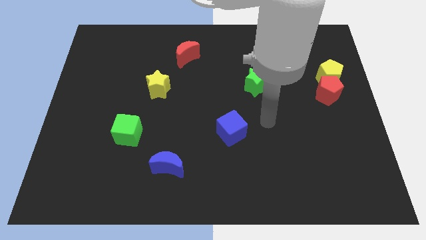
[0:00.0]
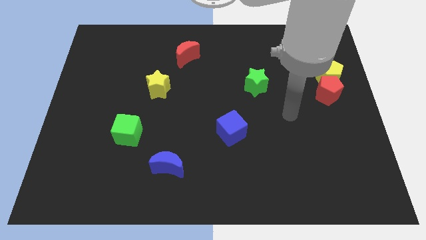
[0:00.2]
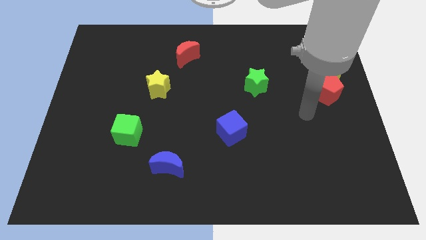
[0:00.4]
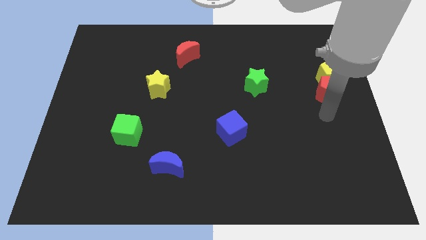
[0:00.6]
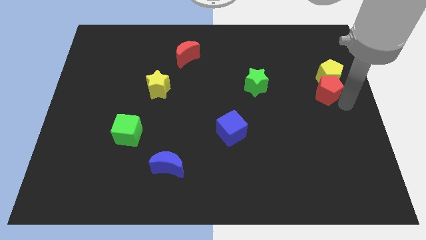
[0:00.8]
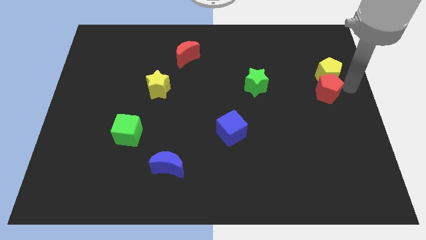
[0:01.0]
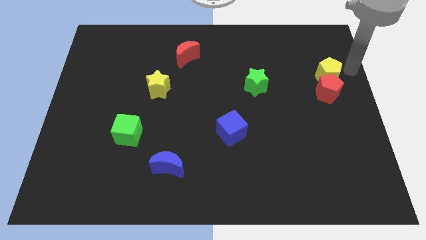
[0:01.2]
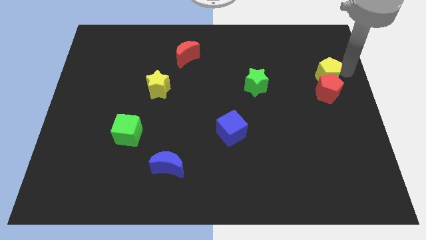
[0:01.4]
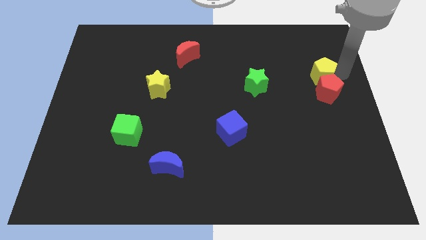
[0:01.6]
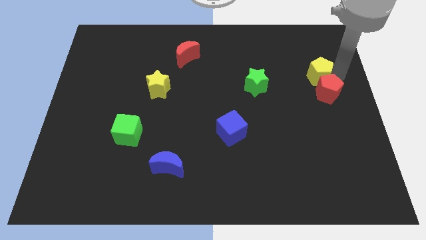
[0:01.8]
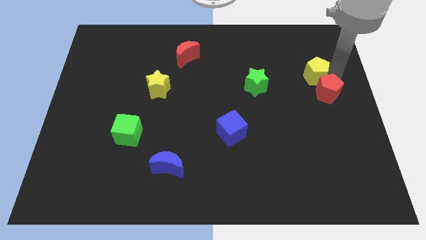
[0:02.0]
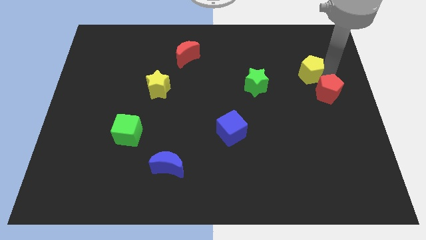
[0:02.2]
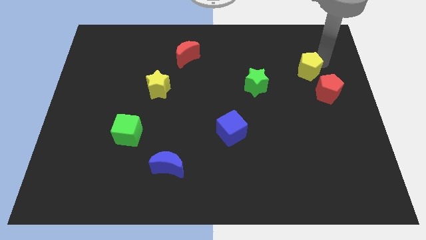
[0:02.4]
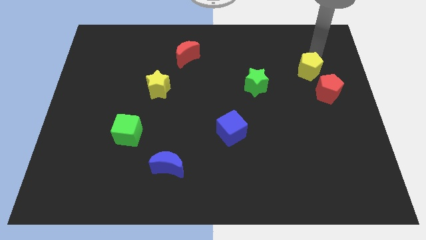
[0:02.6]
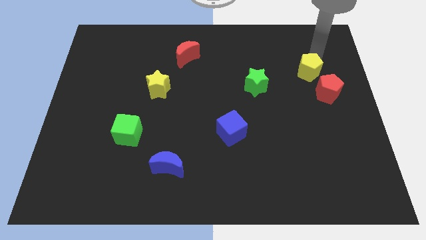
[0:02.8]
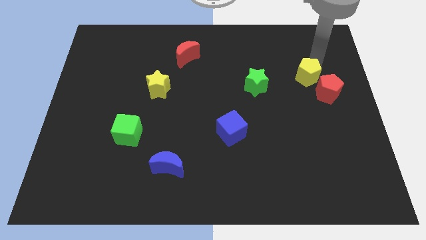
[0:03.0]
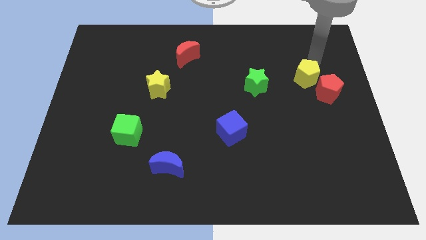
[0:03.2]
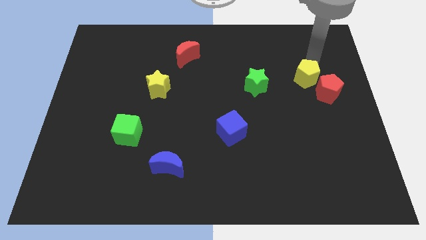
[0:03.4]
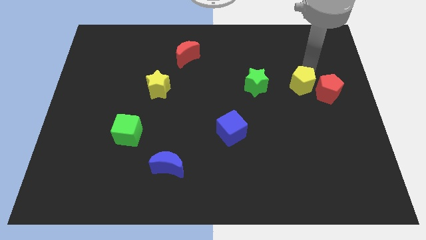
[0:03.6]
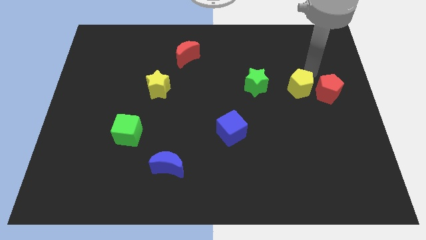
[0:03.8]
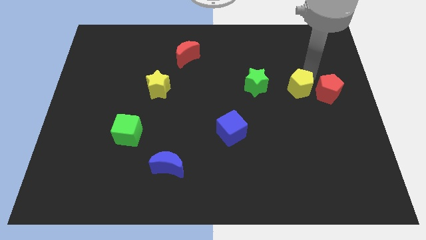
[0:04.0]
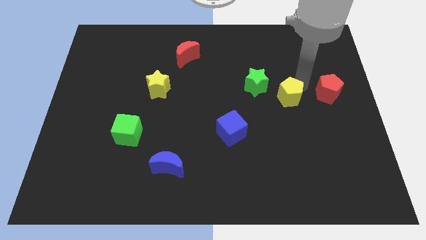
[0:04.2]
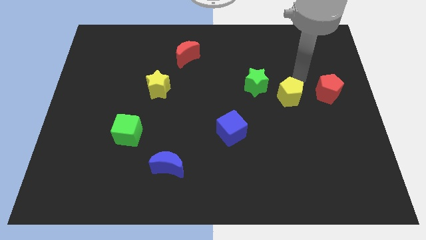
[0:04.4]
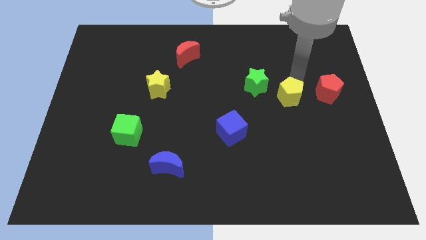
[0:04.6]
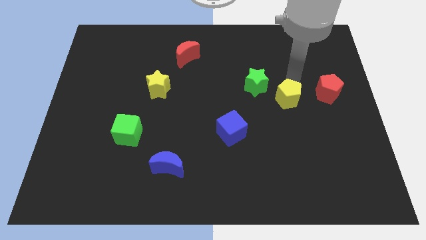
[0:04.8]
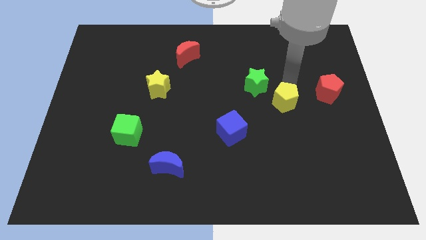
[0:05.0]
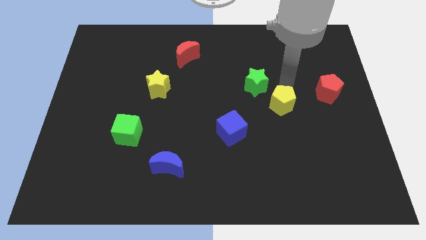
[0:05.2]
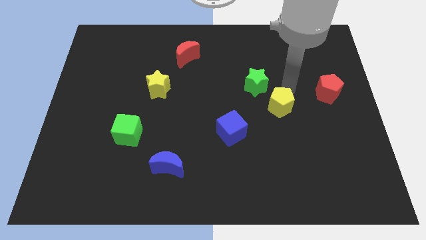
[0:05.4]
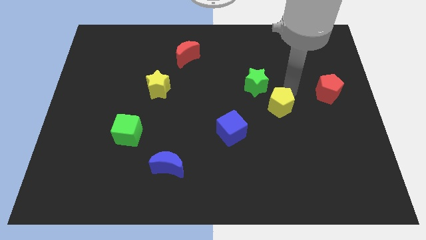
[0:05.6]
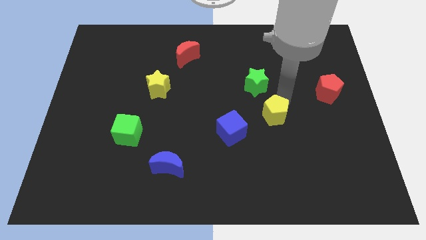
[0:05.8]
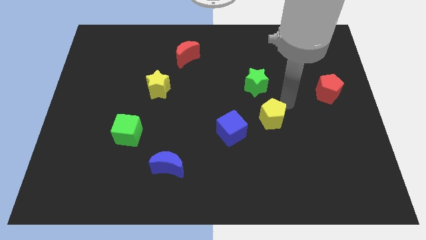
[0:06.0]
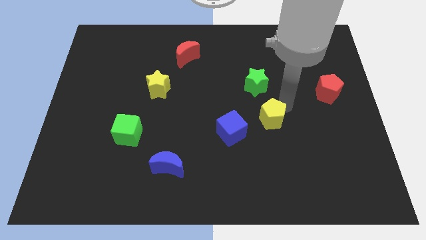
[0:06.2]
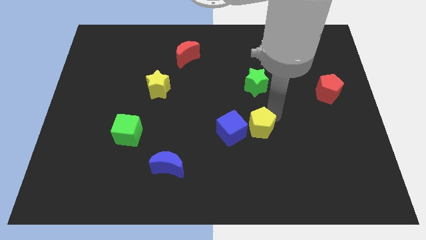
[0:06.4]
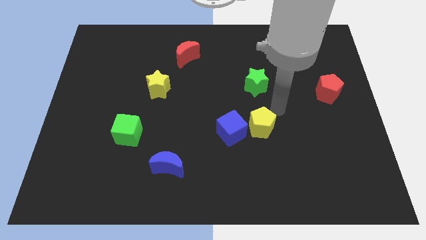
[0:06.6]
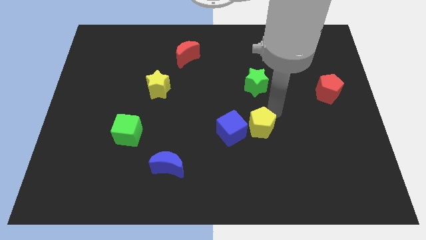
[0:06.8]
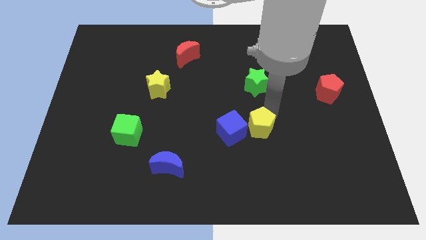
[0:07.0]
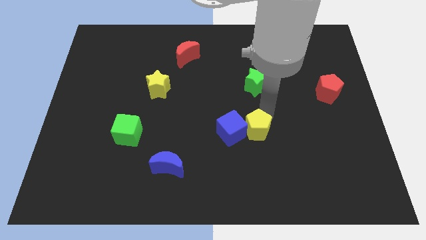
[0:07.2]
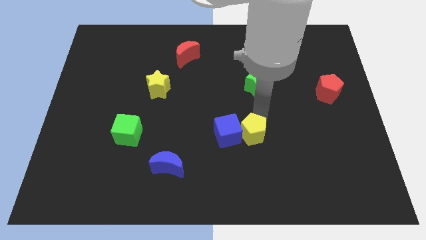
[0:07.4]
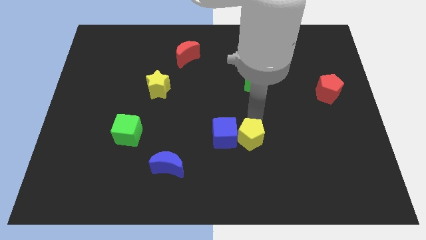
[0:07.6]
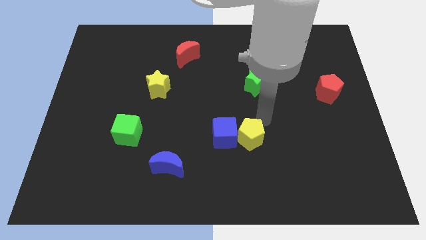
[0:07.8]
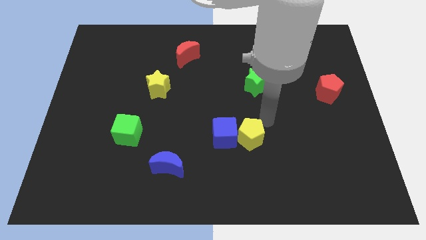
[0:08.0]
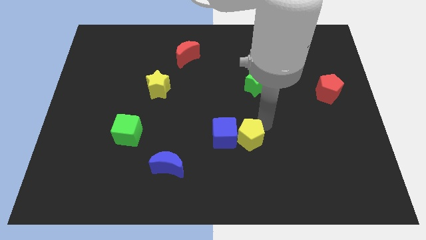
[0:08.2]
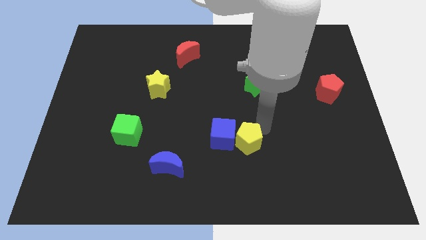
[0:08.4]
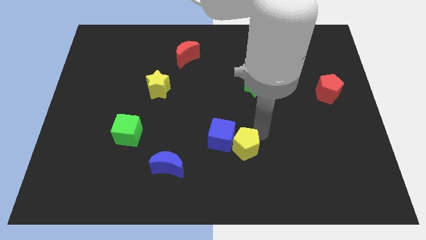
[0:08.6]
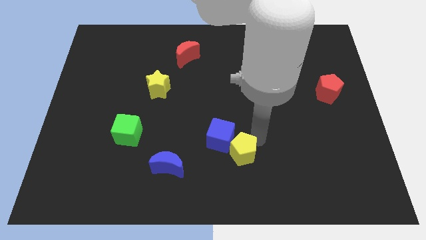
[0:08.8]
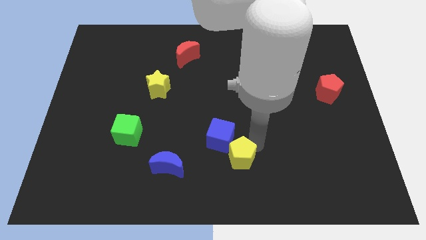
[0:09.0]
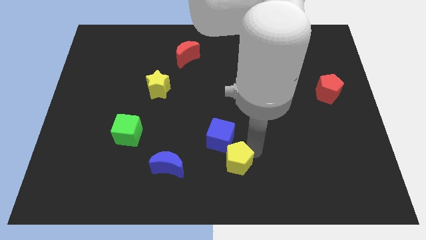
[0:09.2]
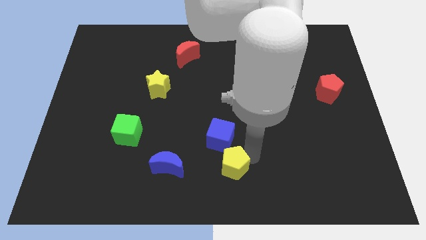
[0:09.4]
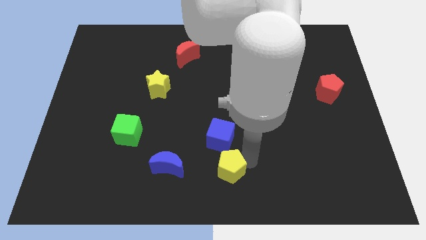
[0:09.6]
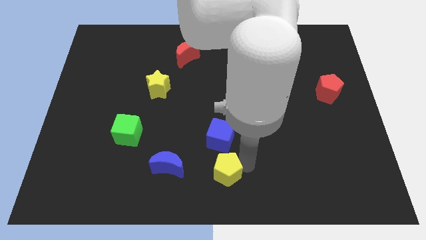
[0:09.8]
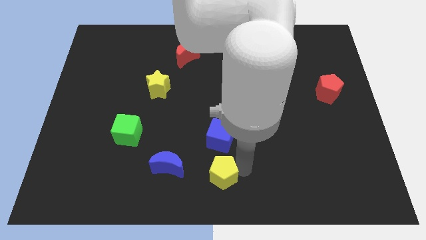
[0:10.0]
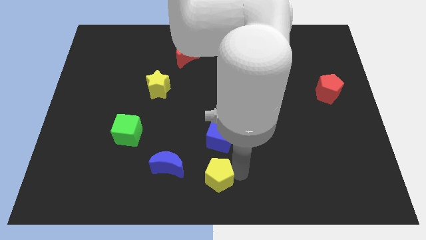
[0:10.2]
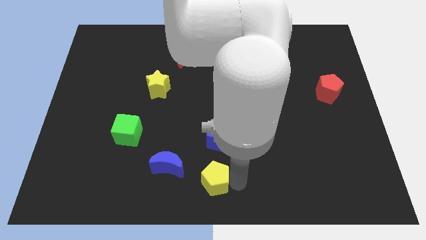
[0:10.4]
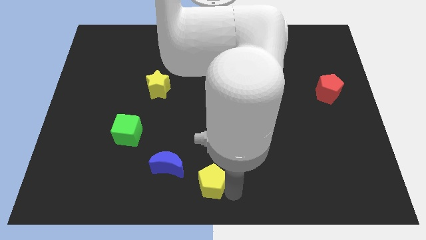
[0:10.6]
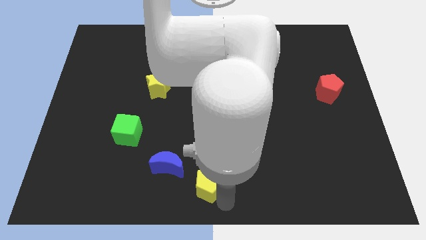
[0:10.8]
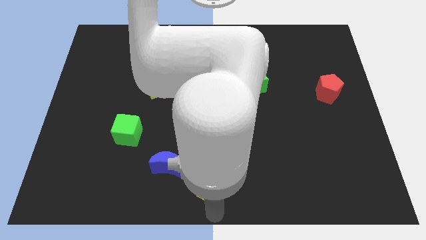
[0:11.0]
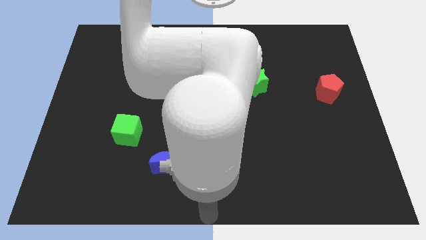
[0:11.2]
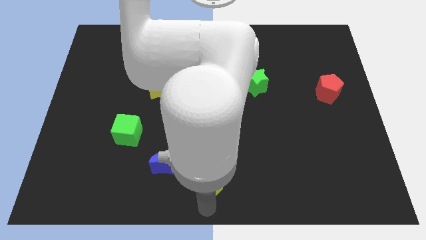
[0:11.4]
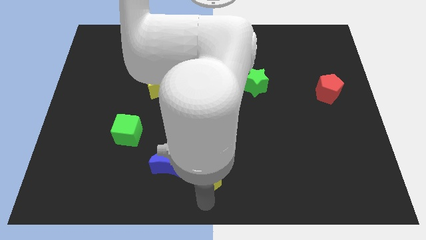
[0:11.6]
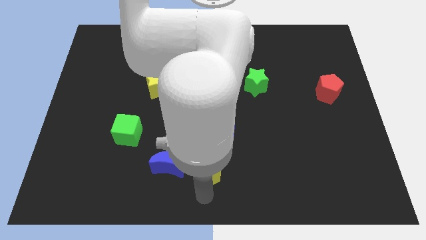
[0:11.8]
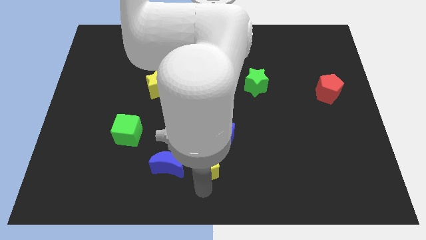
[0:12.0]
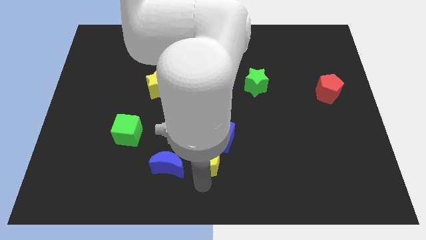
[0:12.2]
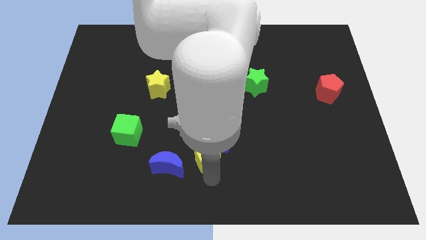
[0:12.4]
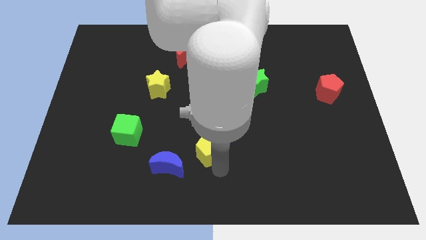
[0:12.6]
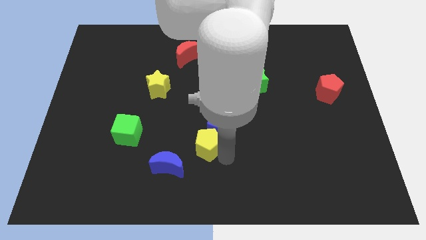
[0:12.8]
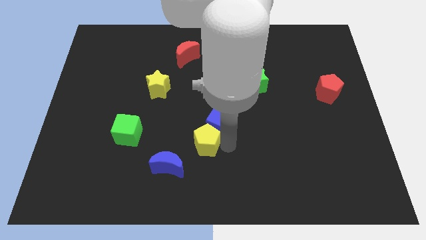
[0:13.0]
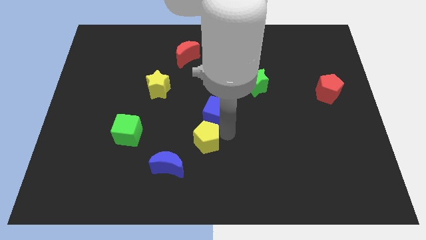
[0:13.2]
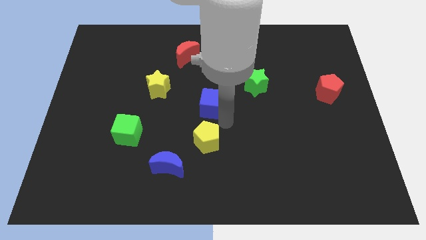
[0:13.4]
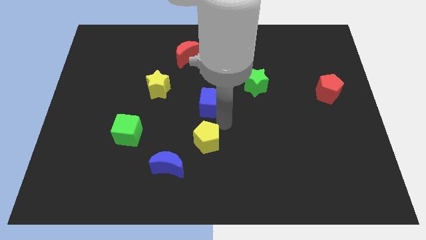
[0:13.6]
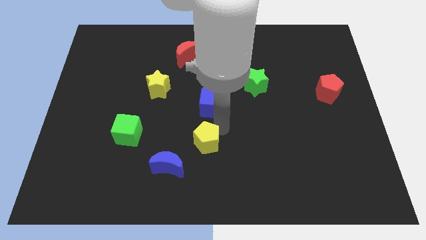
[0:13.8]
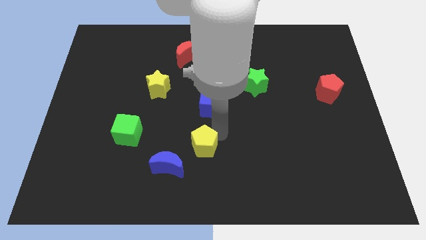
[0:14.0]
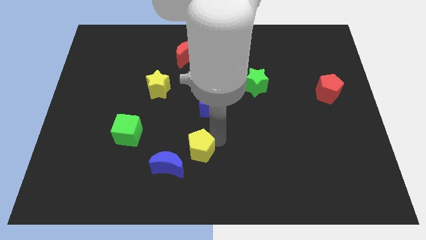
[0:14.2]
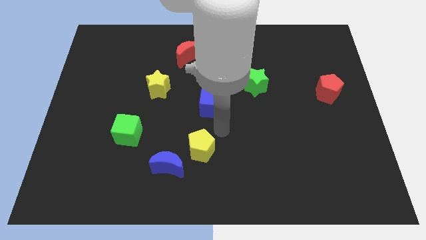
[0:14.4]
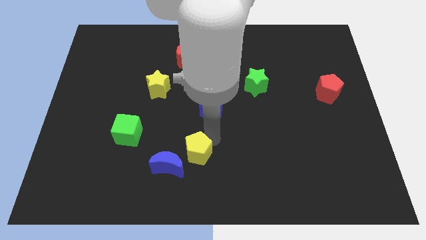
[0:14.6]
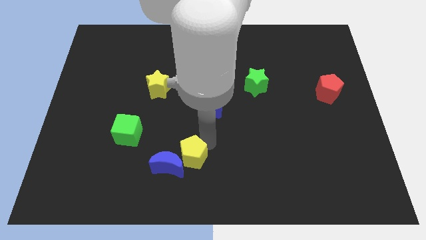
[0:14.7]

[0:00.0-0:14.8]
push the yellow pentagon towards the blue moon
